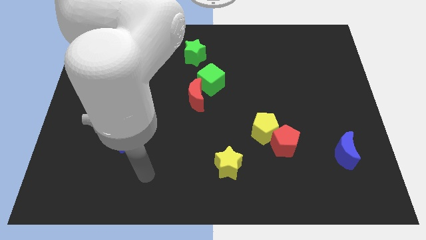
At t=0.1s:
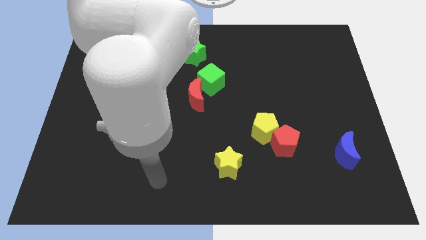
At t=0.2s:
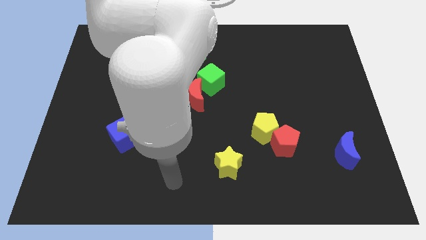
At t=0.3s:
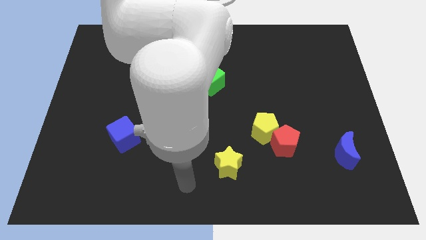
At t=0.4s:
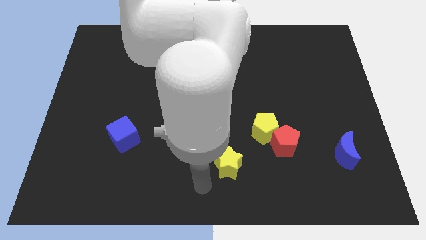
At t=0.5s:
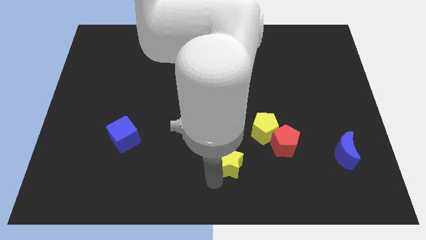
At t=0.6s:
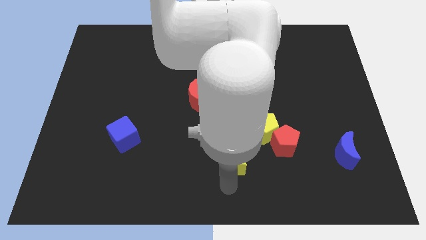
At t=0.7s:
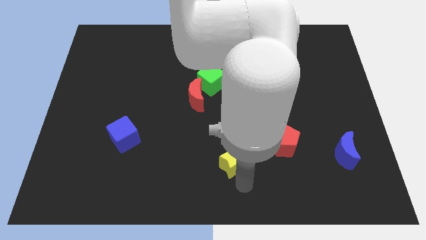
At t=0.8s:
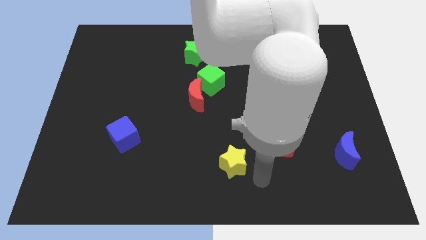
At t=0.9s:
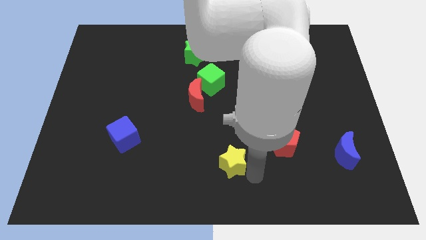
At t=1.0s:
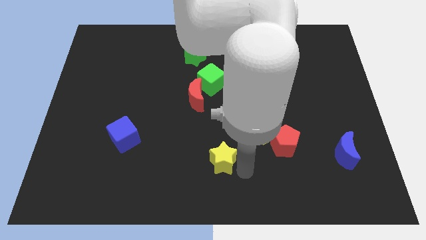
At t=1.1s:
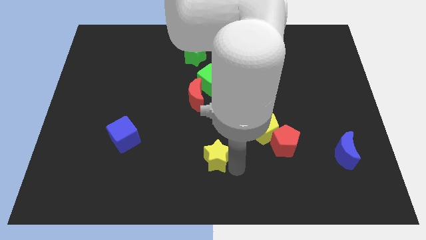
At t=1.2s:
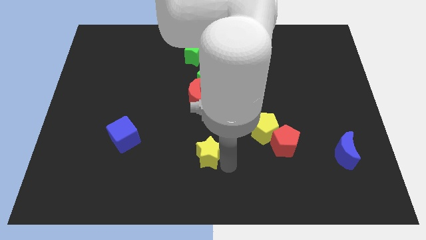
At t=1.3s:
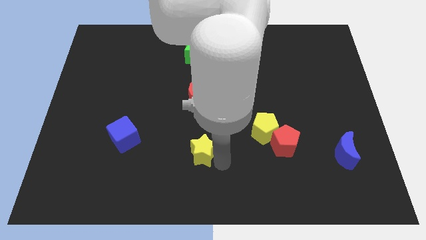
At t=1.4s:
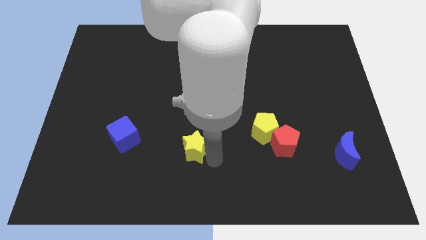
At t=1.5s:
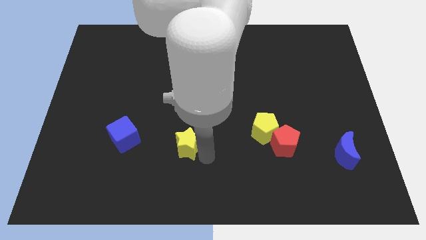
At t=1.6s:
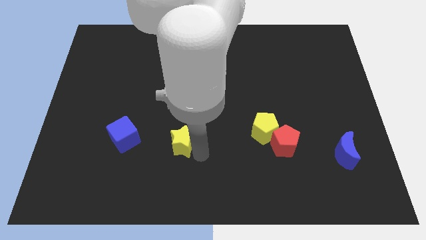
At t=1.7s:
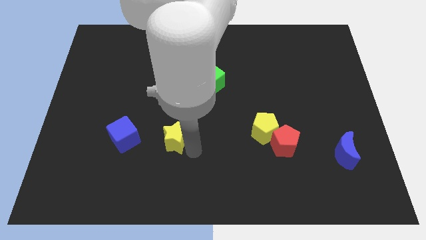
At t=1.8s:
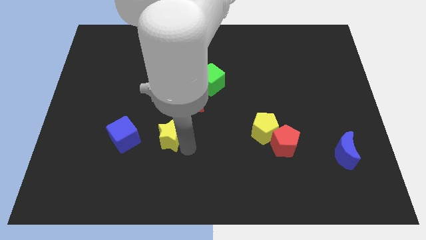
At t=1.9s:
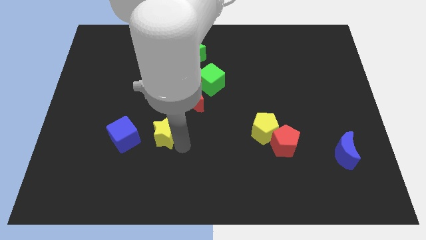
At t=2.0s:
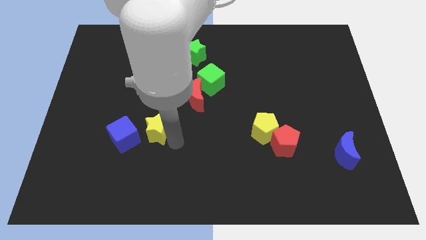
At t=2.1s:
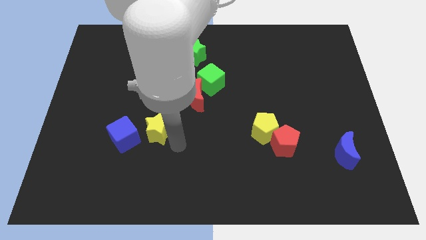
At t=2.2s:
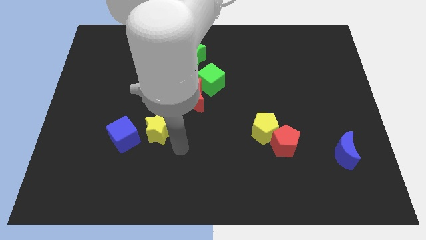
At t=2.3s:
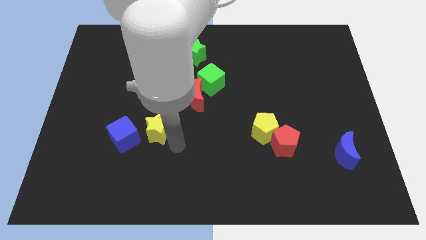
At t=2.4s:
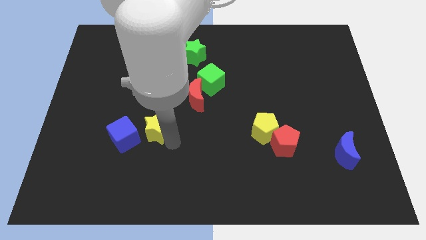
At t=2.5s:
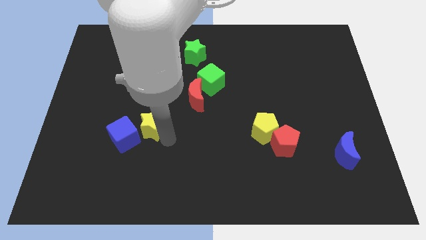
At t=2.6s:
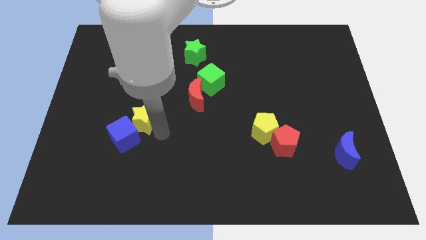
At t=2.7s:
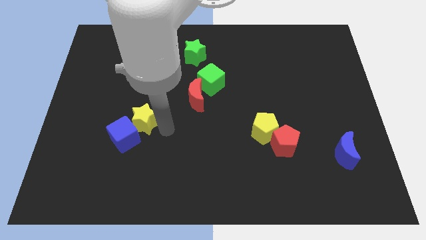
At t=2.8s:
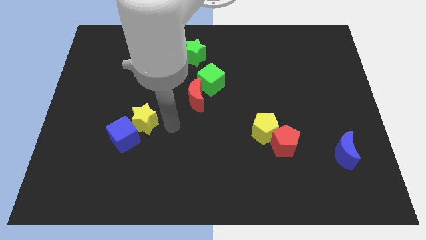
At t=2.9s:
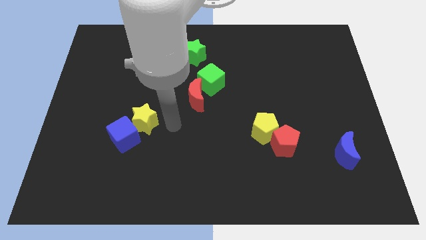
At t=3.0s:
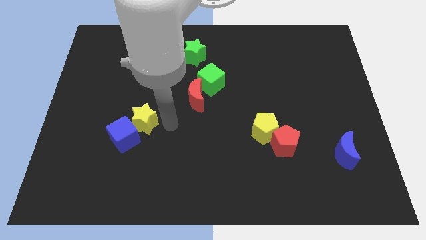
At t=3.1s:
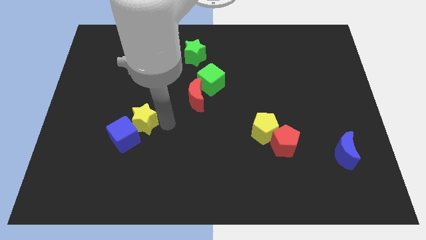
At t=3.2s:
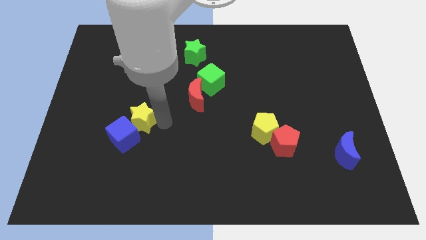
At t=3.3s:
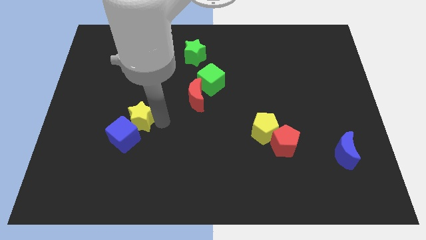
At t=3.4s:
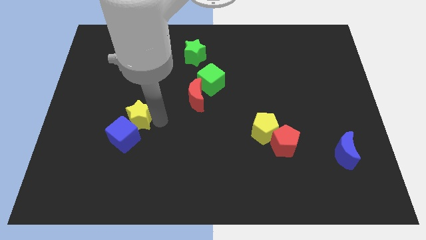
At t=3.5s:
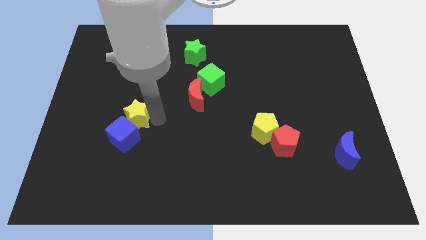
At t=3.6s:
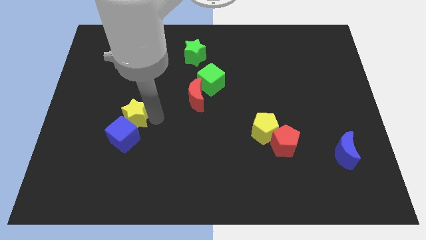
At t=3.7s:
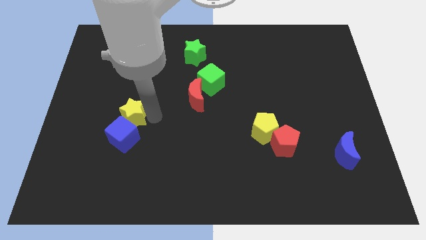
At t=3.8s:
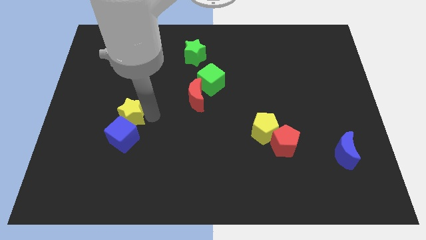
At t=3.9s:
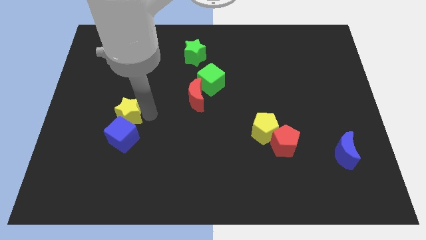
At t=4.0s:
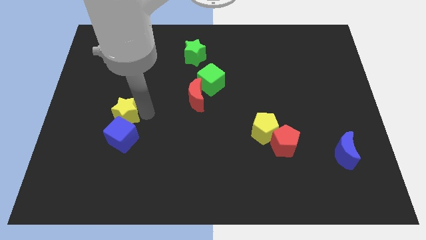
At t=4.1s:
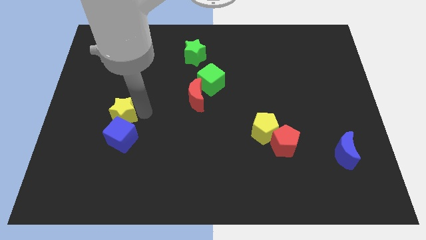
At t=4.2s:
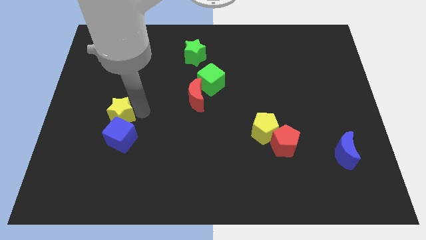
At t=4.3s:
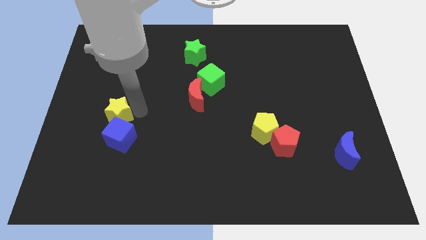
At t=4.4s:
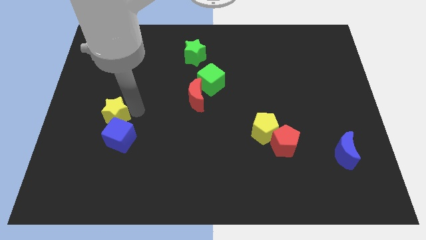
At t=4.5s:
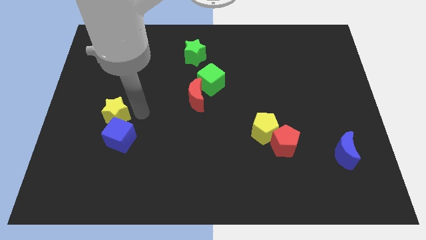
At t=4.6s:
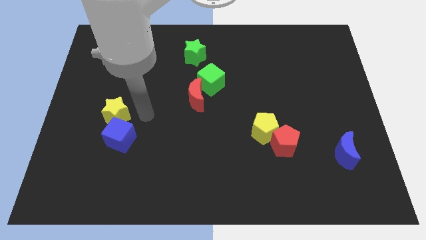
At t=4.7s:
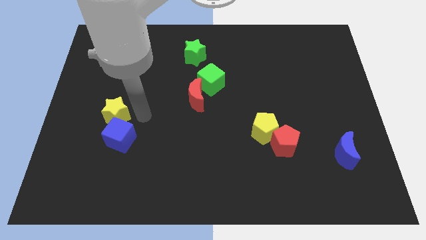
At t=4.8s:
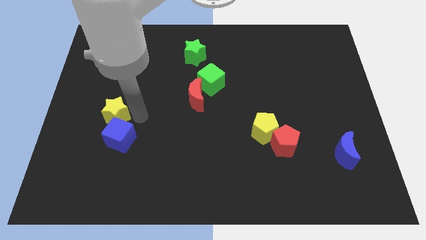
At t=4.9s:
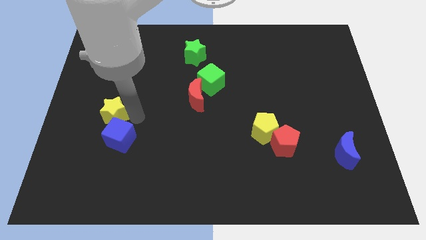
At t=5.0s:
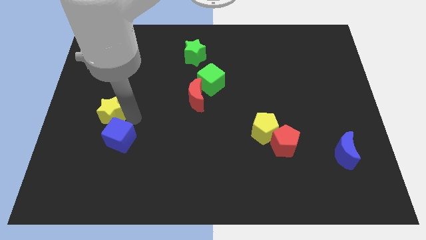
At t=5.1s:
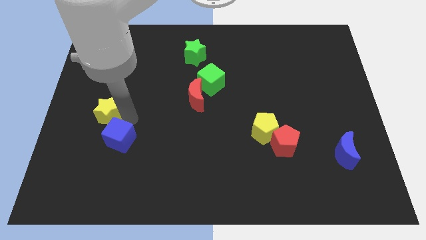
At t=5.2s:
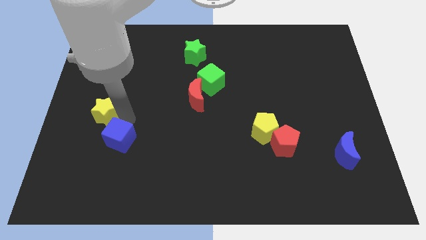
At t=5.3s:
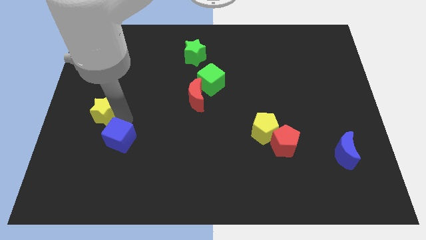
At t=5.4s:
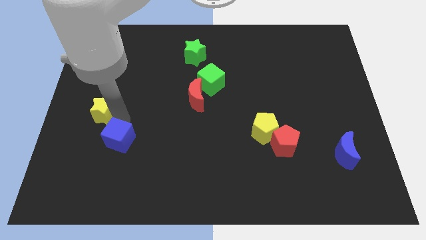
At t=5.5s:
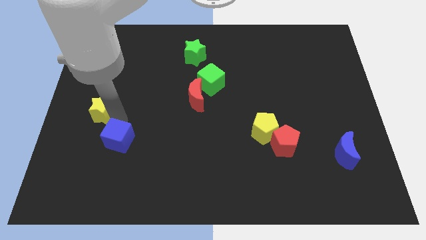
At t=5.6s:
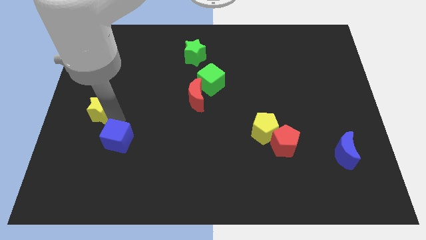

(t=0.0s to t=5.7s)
slide the yellow star to the left side of the board

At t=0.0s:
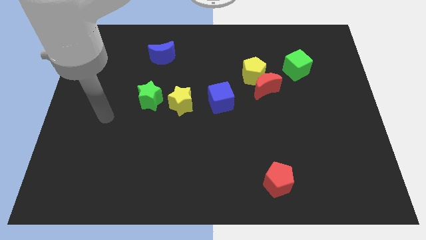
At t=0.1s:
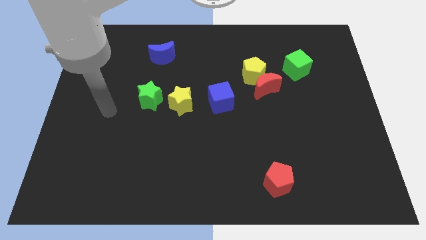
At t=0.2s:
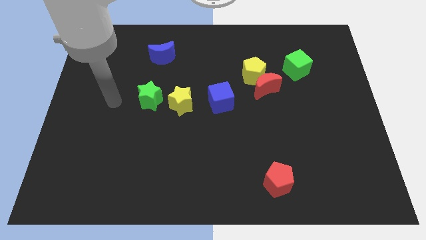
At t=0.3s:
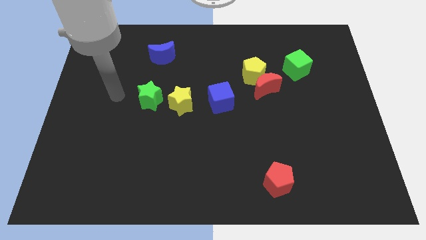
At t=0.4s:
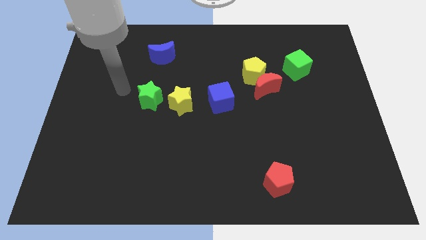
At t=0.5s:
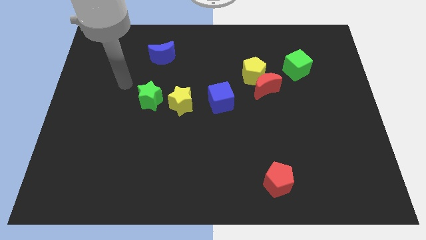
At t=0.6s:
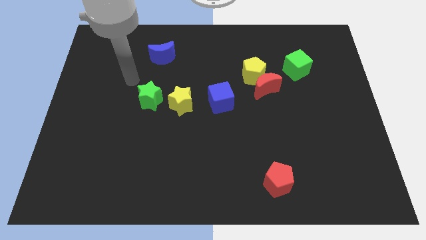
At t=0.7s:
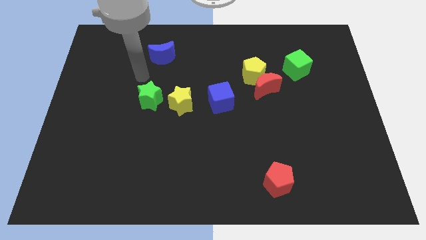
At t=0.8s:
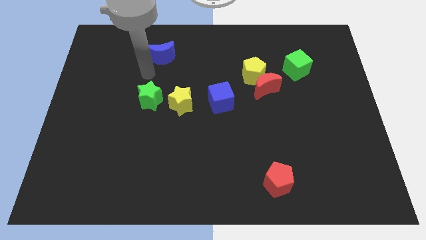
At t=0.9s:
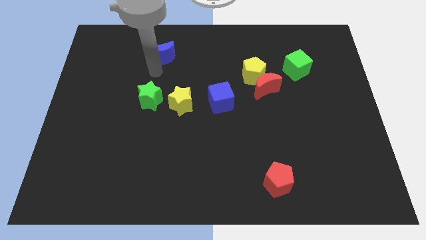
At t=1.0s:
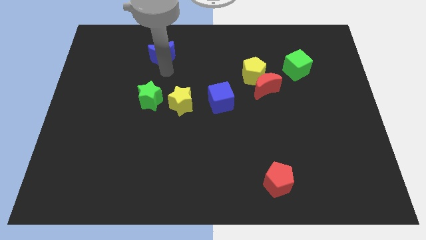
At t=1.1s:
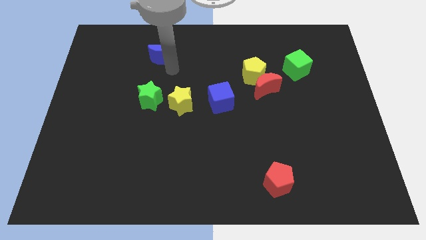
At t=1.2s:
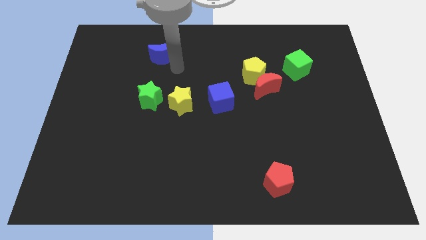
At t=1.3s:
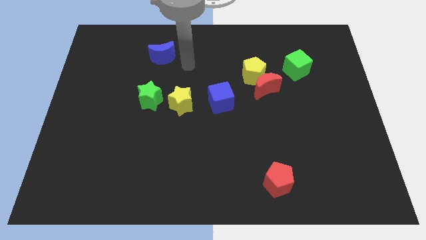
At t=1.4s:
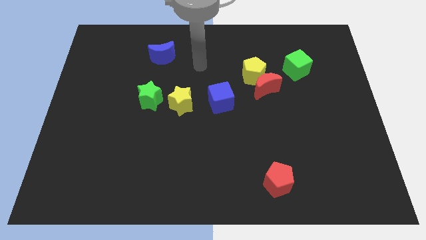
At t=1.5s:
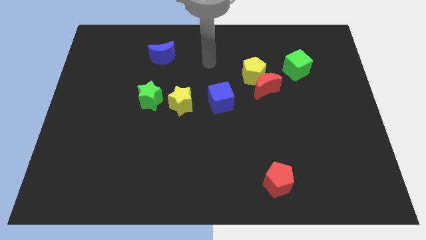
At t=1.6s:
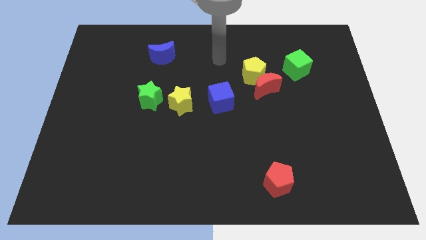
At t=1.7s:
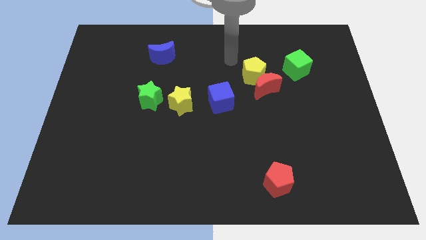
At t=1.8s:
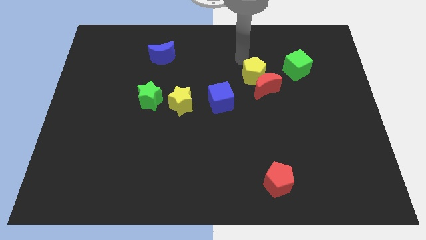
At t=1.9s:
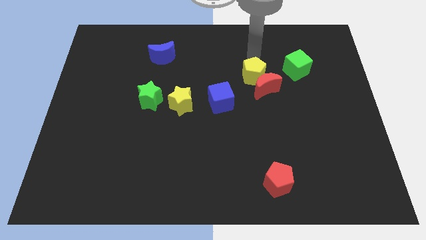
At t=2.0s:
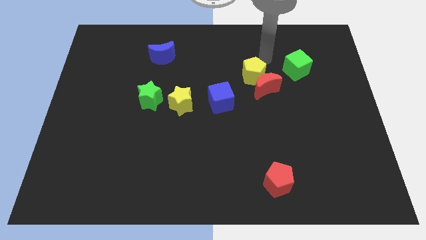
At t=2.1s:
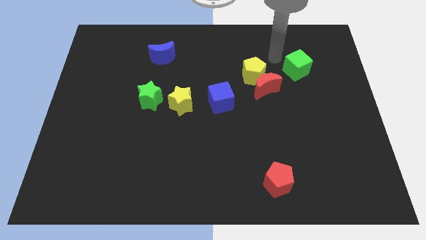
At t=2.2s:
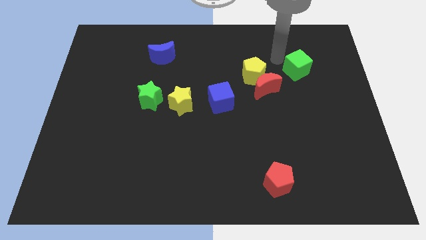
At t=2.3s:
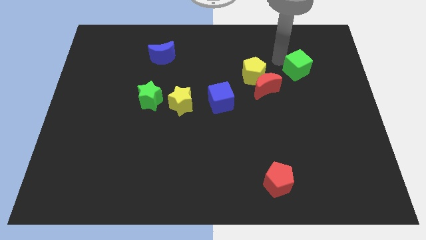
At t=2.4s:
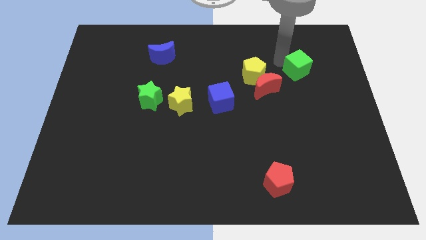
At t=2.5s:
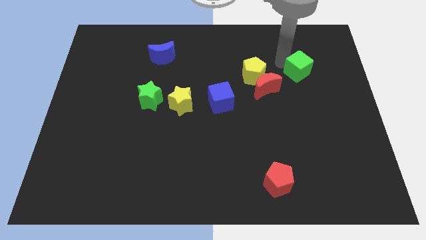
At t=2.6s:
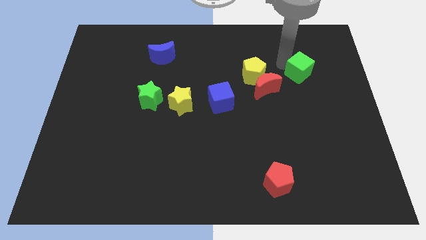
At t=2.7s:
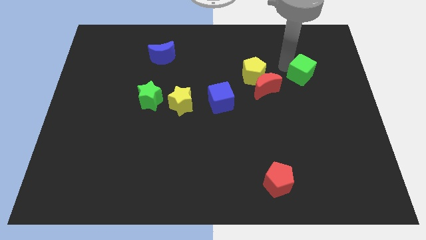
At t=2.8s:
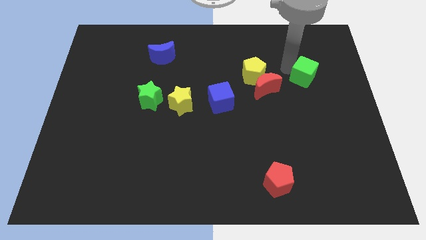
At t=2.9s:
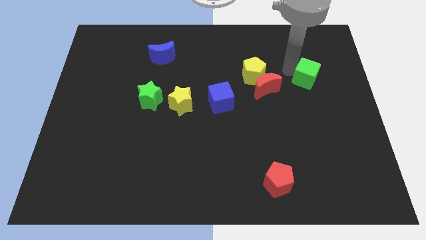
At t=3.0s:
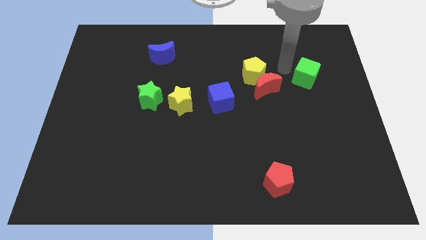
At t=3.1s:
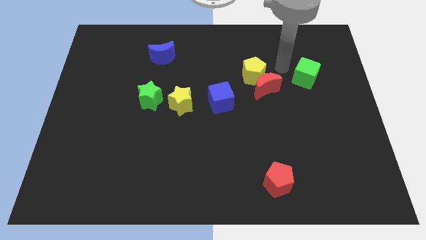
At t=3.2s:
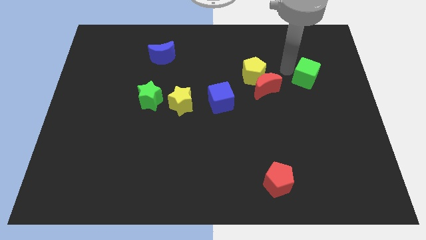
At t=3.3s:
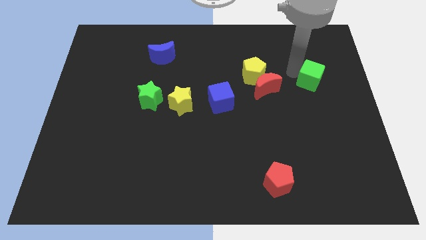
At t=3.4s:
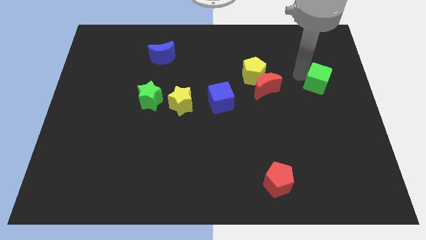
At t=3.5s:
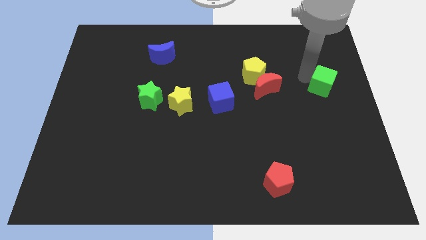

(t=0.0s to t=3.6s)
put the green cube to the right side
